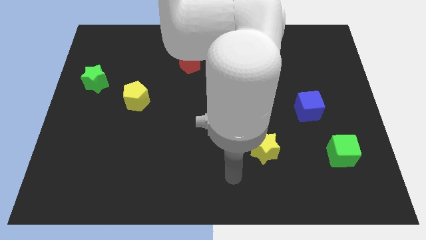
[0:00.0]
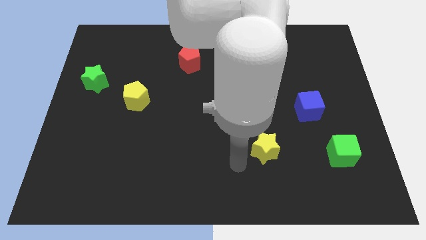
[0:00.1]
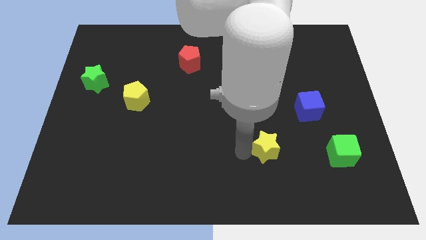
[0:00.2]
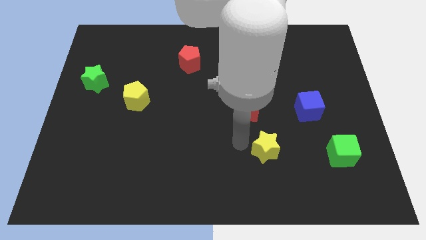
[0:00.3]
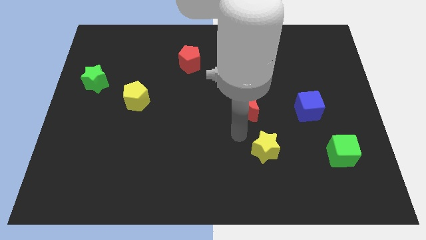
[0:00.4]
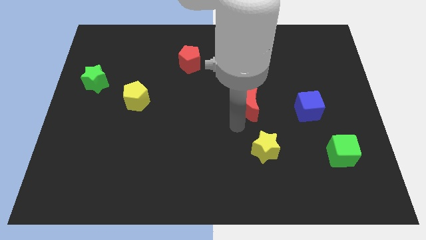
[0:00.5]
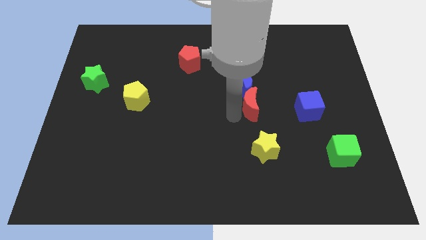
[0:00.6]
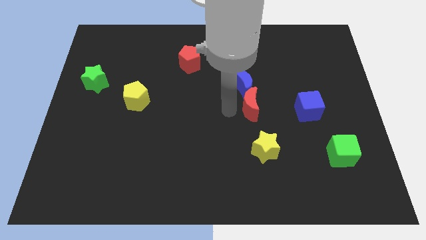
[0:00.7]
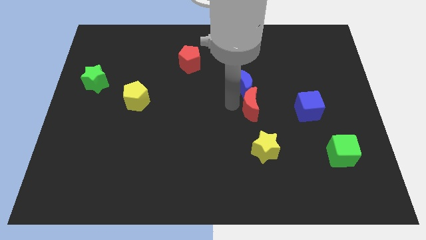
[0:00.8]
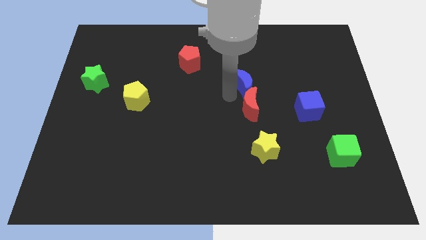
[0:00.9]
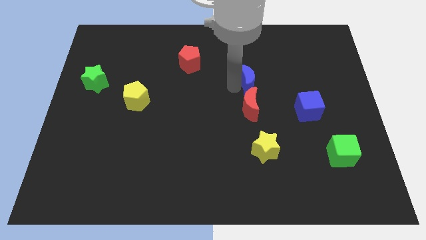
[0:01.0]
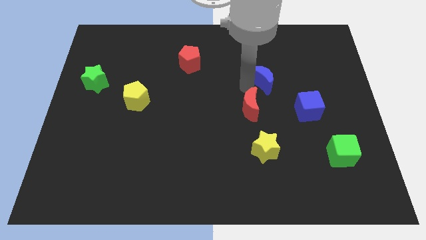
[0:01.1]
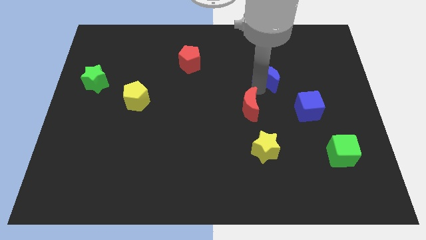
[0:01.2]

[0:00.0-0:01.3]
pull the red moon apart from the blue moon

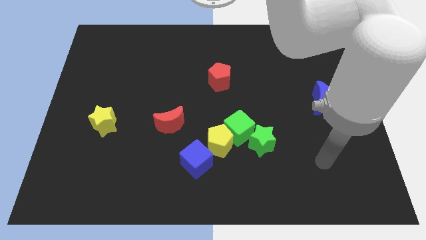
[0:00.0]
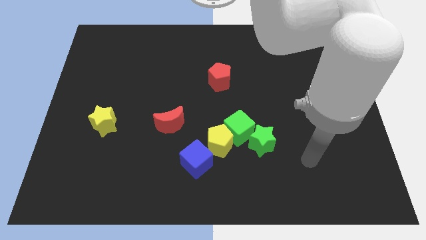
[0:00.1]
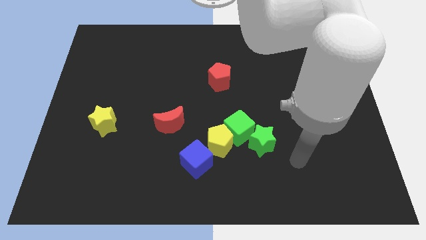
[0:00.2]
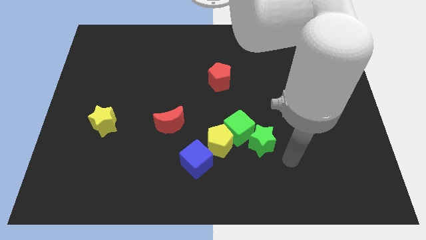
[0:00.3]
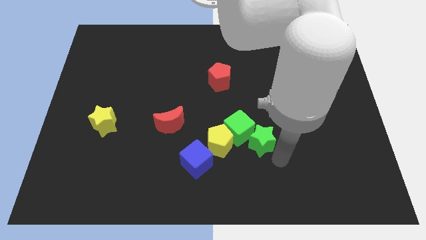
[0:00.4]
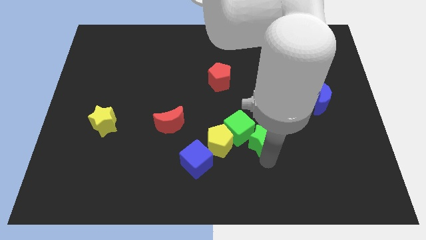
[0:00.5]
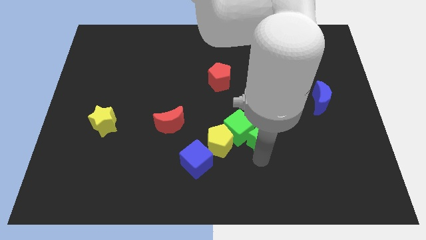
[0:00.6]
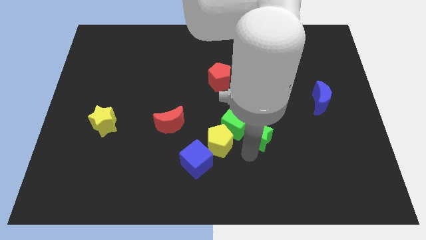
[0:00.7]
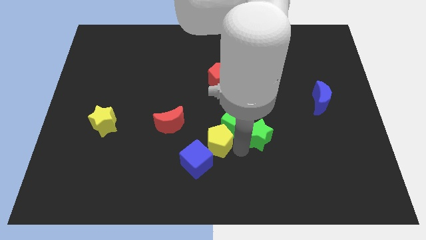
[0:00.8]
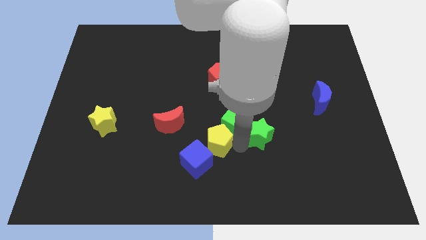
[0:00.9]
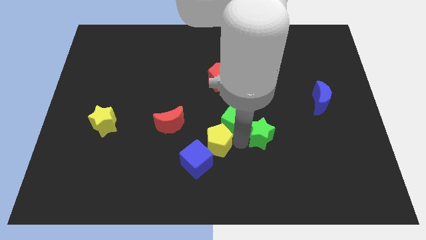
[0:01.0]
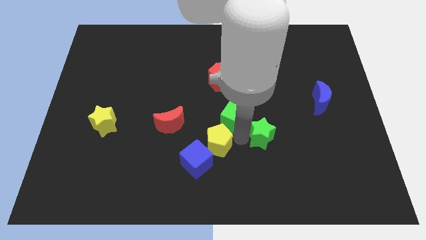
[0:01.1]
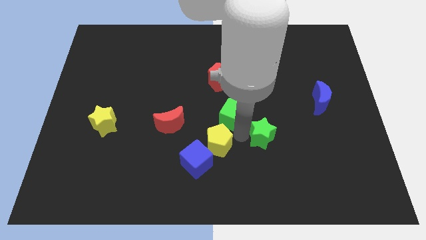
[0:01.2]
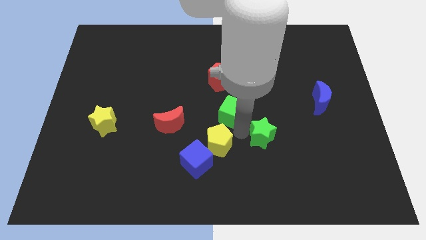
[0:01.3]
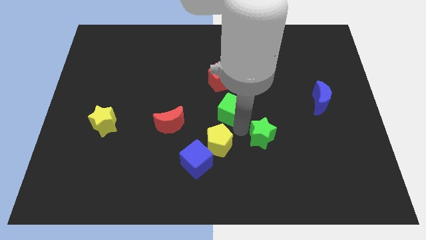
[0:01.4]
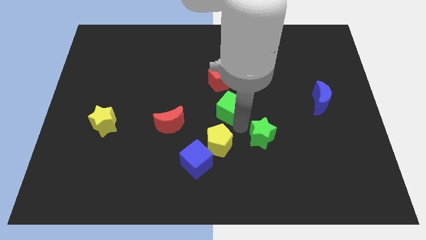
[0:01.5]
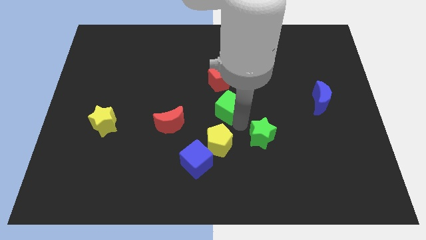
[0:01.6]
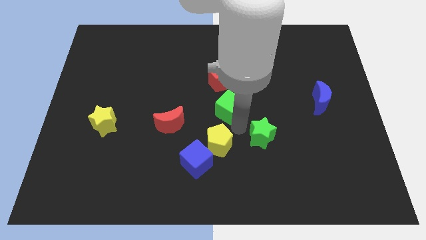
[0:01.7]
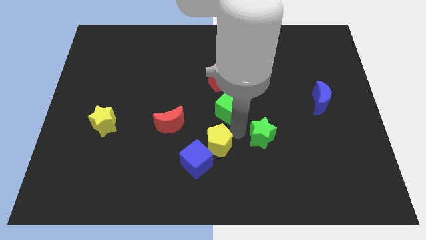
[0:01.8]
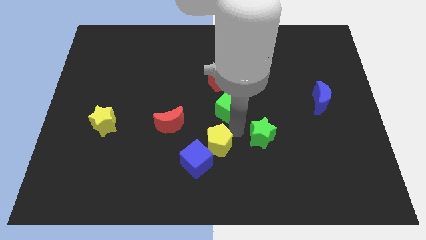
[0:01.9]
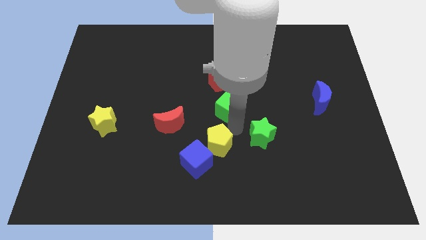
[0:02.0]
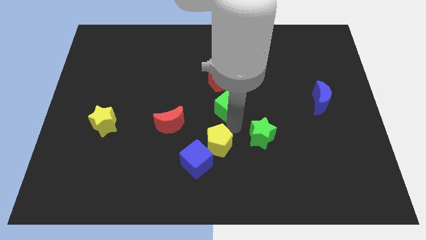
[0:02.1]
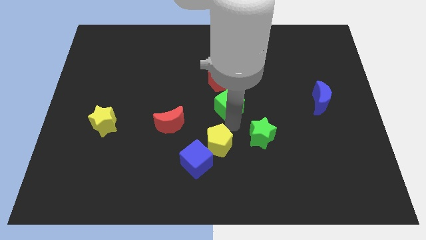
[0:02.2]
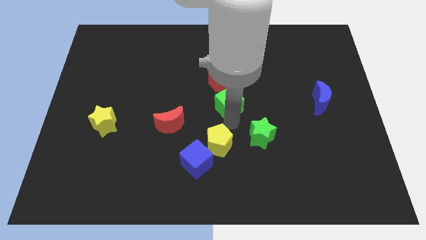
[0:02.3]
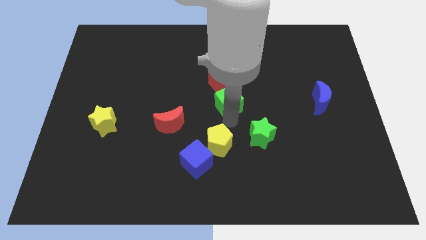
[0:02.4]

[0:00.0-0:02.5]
pull the green cube apart from the yellow pentagon and green star

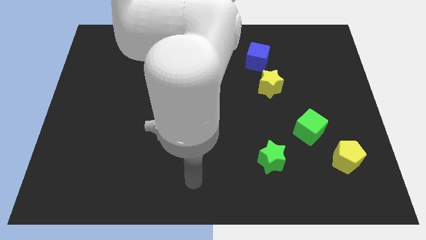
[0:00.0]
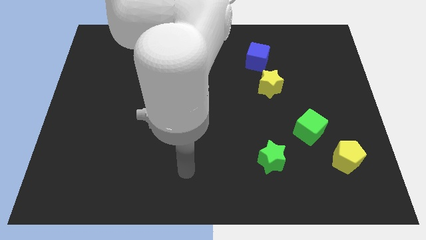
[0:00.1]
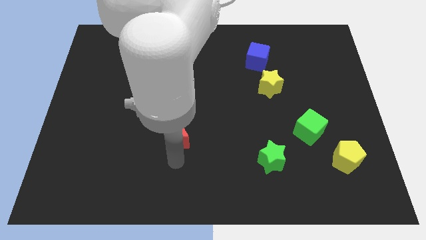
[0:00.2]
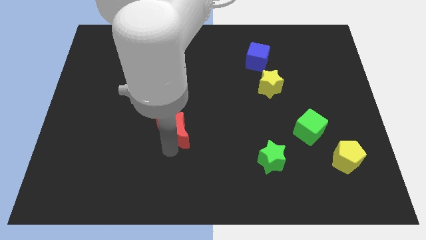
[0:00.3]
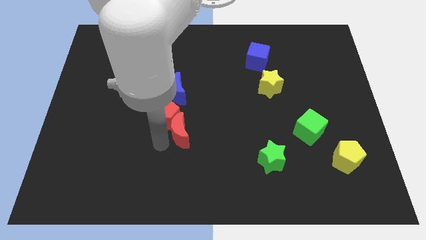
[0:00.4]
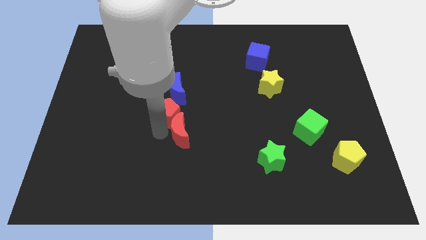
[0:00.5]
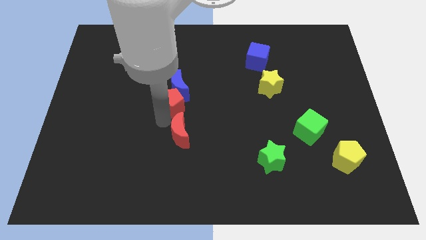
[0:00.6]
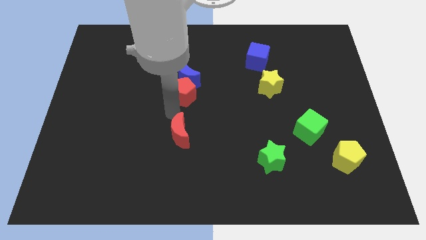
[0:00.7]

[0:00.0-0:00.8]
move the red moon away from the red pentagon

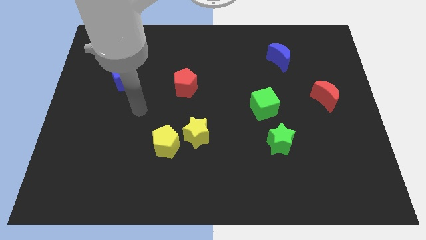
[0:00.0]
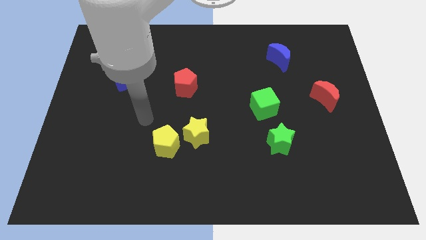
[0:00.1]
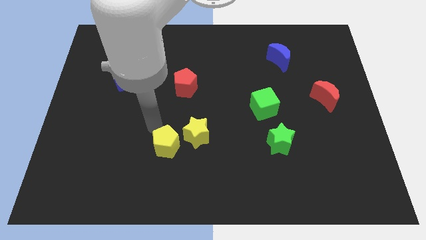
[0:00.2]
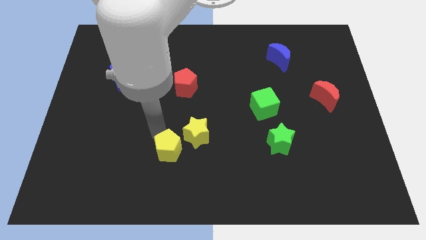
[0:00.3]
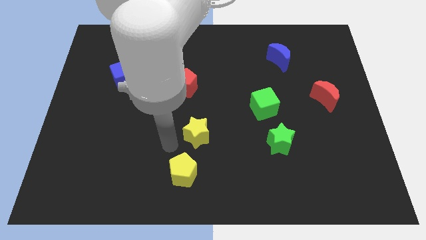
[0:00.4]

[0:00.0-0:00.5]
separate the yellow star from the yellow pentagon

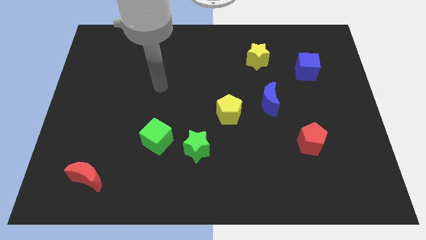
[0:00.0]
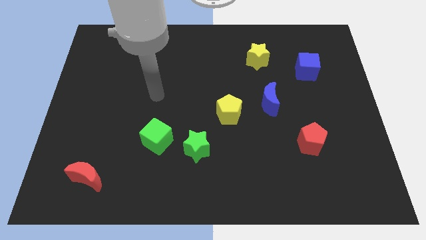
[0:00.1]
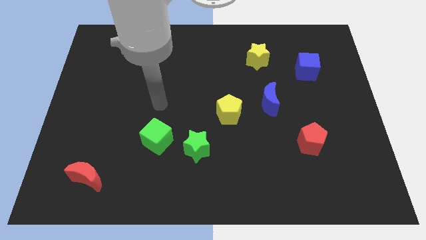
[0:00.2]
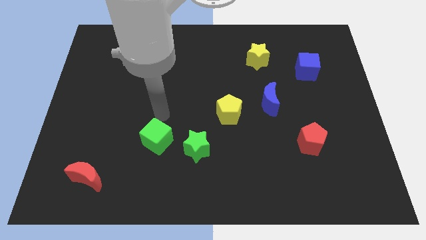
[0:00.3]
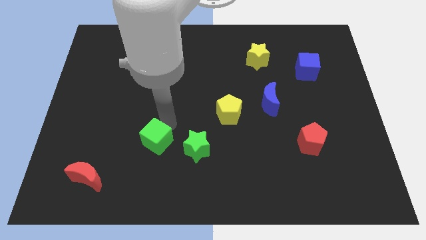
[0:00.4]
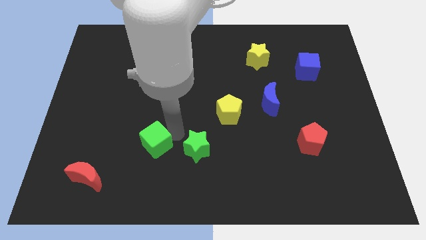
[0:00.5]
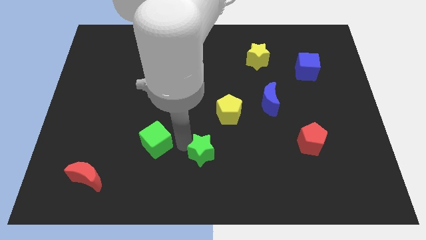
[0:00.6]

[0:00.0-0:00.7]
pull the green cube apart from the green star

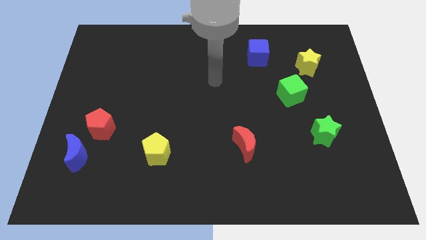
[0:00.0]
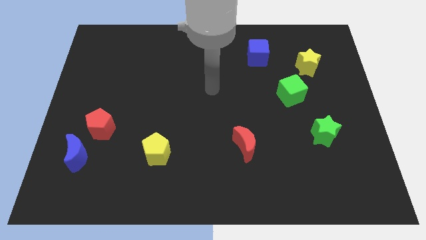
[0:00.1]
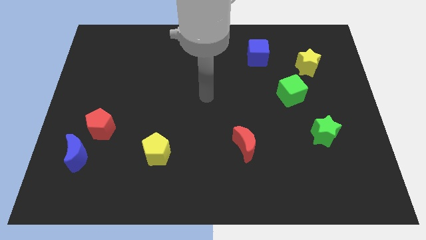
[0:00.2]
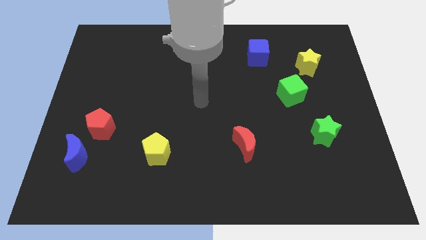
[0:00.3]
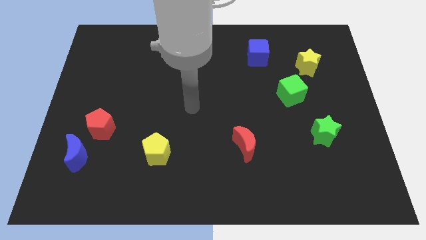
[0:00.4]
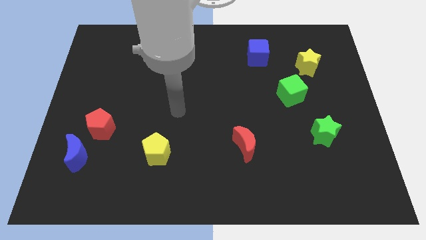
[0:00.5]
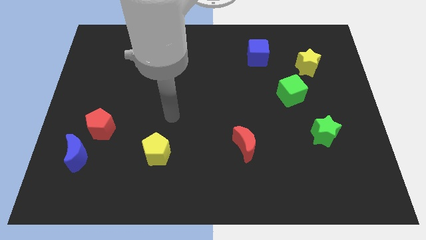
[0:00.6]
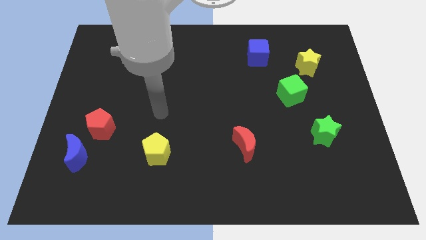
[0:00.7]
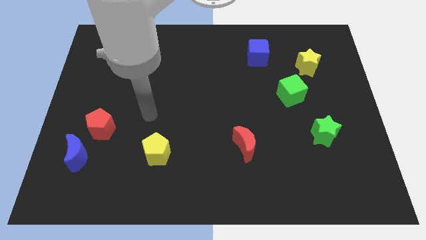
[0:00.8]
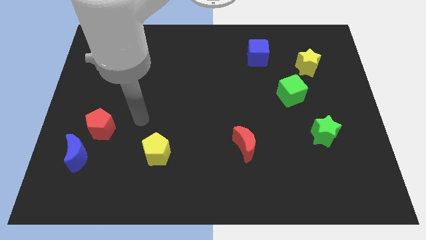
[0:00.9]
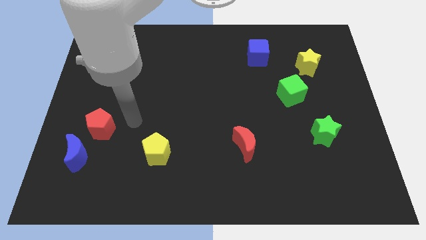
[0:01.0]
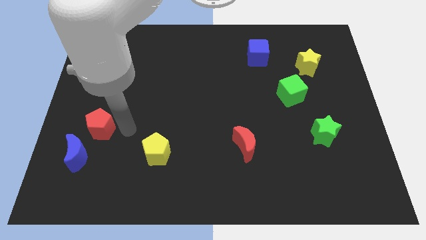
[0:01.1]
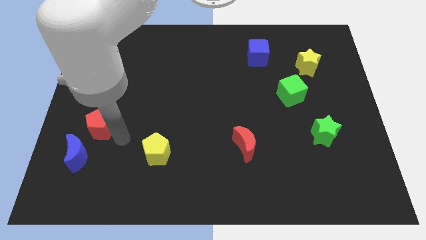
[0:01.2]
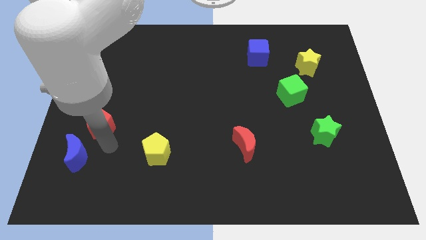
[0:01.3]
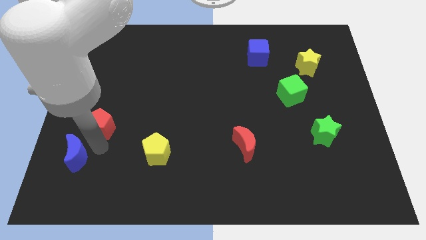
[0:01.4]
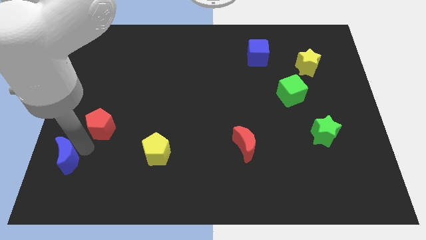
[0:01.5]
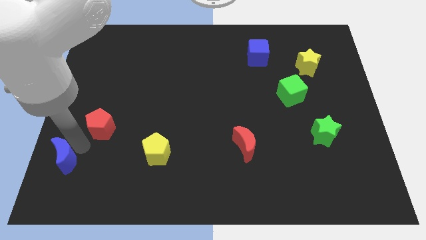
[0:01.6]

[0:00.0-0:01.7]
pull the red pentagon apart from the blue moon

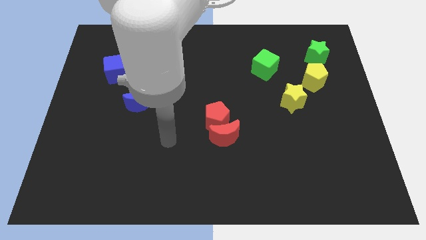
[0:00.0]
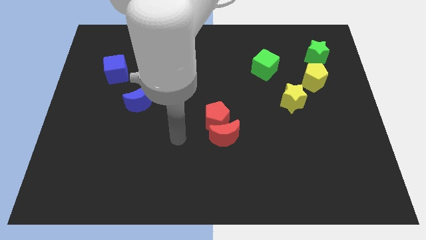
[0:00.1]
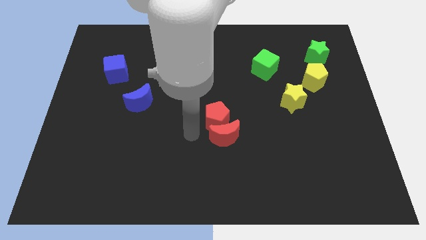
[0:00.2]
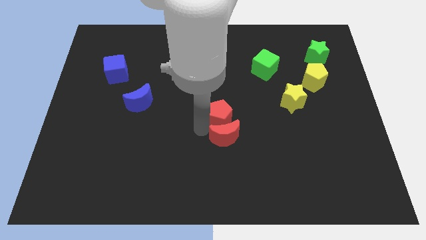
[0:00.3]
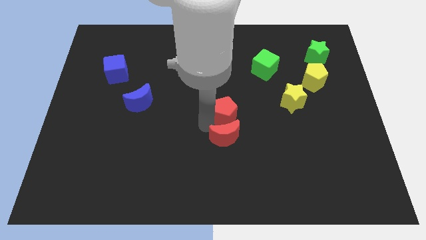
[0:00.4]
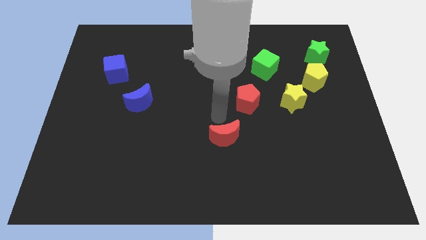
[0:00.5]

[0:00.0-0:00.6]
pull the red moon apart from the red pentagon

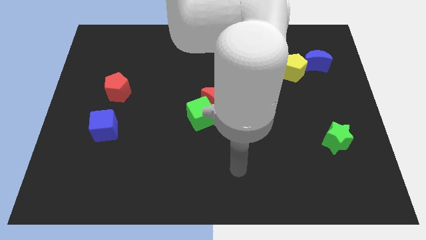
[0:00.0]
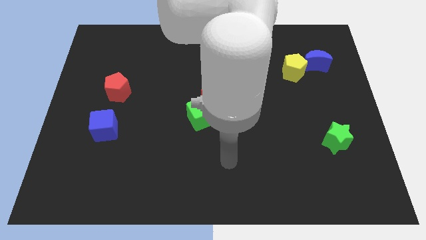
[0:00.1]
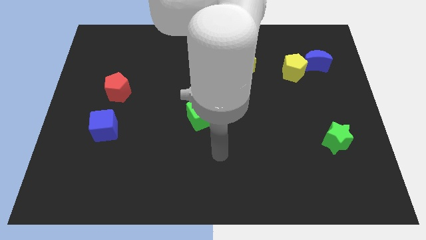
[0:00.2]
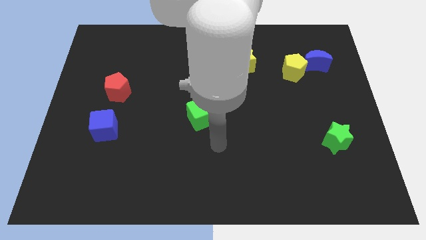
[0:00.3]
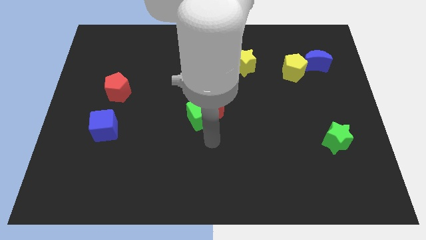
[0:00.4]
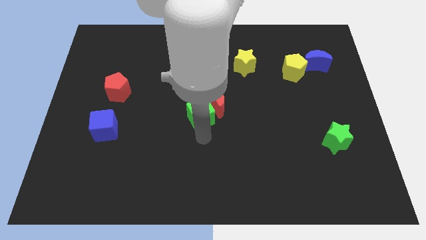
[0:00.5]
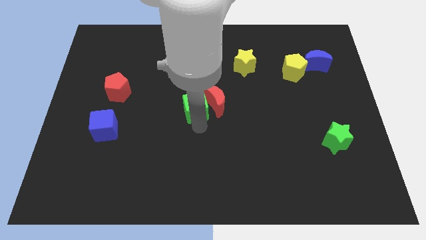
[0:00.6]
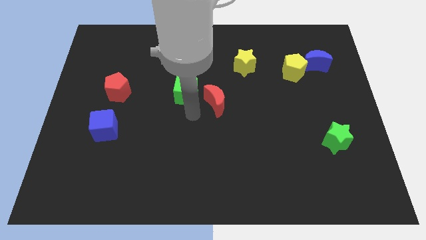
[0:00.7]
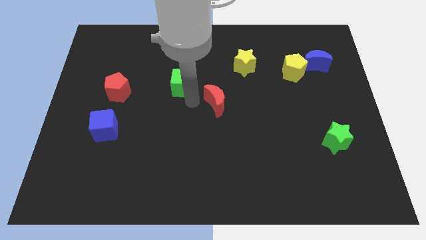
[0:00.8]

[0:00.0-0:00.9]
move the red moon away from the green cube

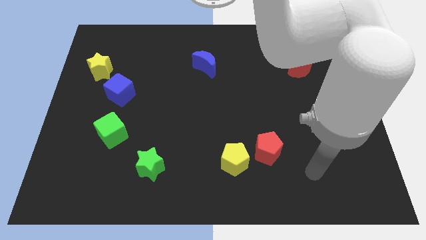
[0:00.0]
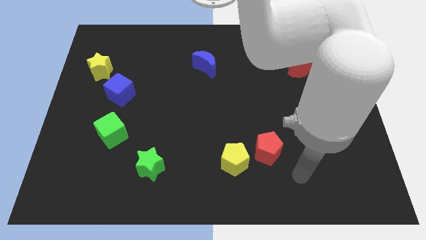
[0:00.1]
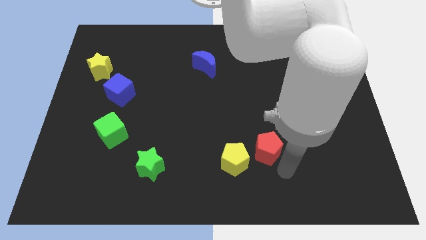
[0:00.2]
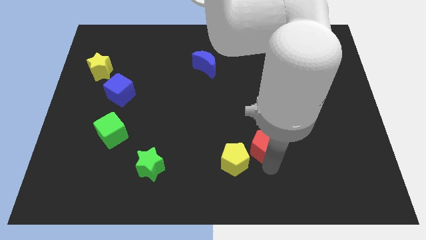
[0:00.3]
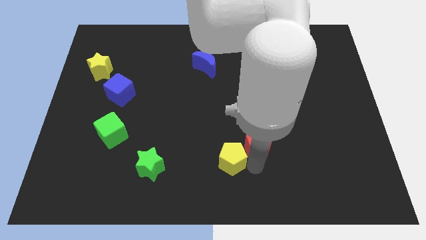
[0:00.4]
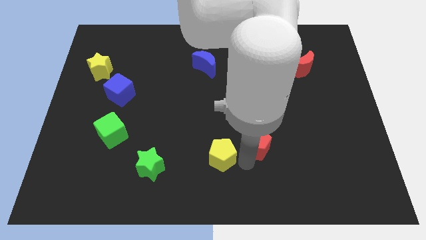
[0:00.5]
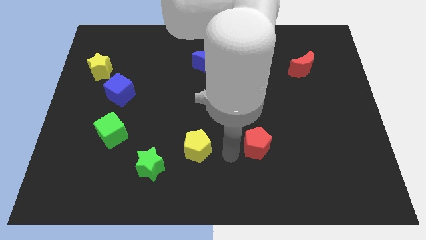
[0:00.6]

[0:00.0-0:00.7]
separate the red pentagon from the yellow pentagon
